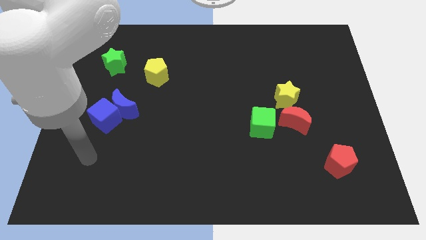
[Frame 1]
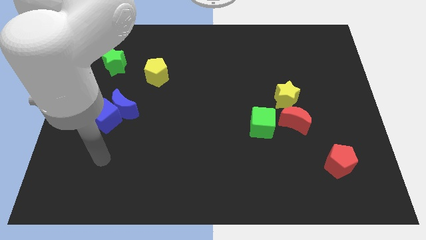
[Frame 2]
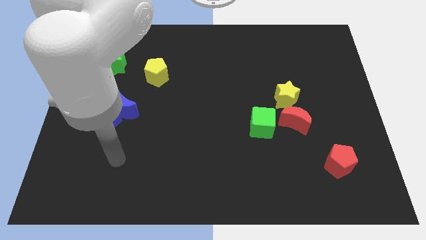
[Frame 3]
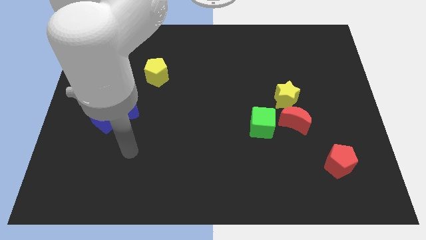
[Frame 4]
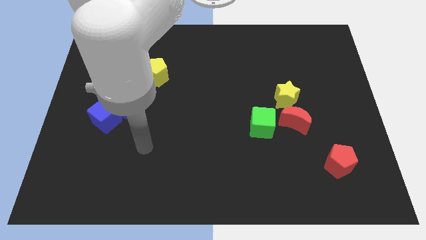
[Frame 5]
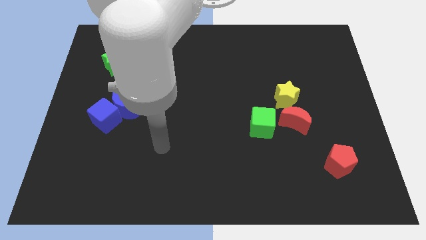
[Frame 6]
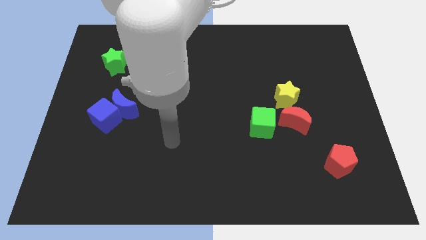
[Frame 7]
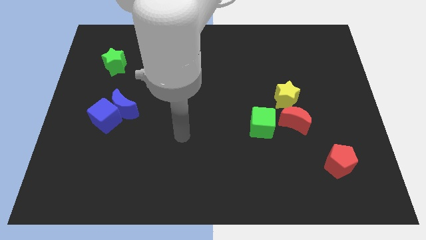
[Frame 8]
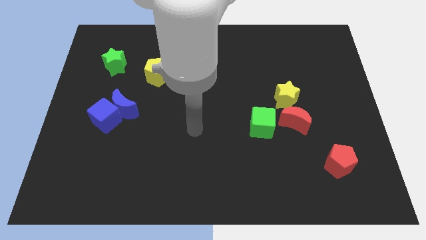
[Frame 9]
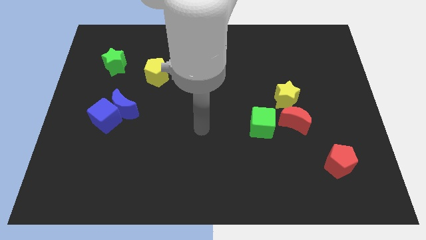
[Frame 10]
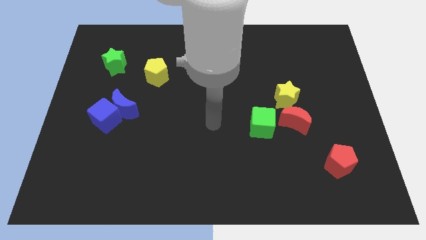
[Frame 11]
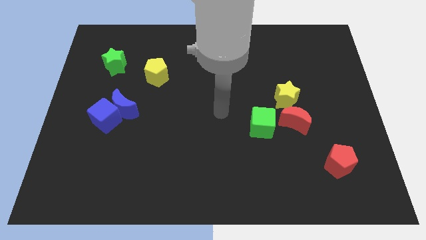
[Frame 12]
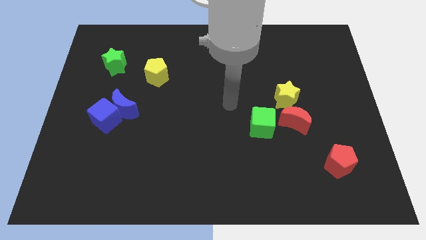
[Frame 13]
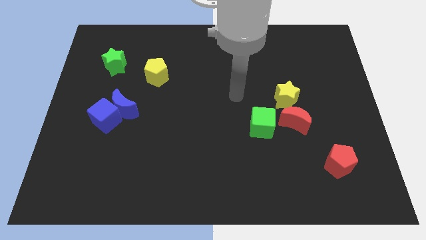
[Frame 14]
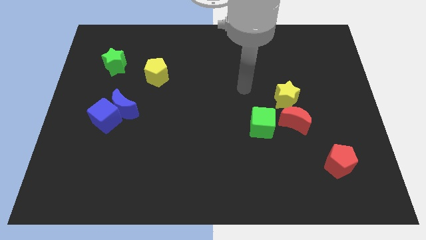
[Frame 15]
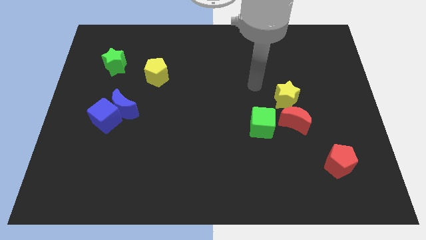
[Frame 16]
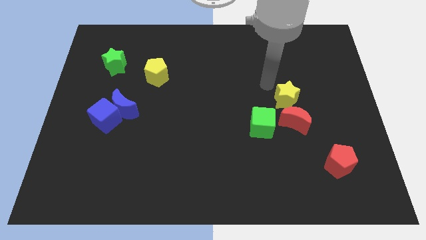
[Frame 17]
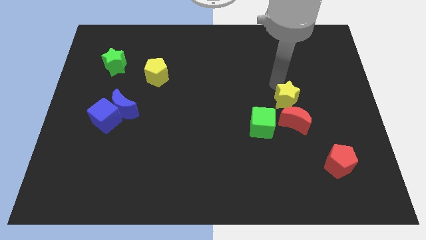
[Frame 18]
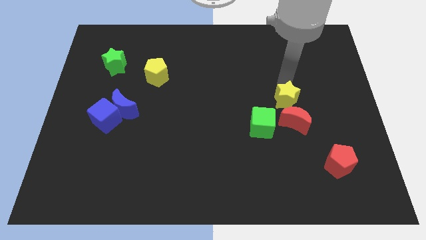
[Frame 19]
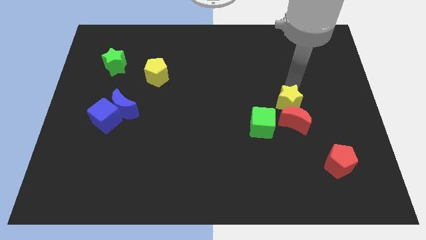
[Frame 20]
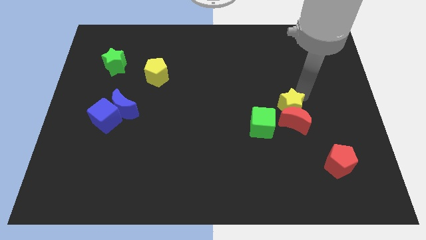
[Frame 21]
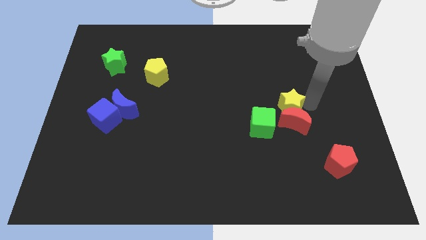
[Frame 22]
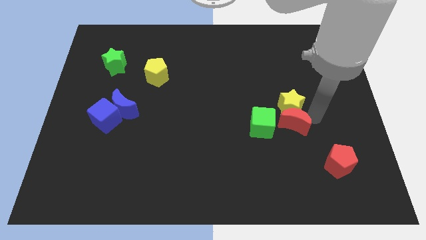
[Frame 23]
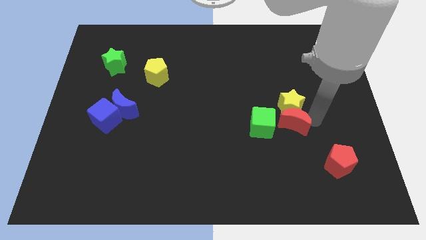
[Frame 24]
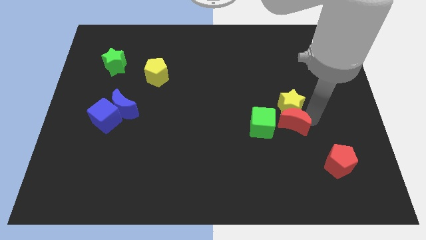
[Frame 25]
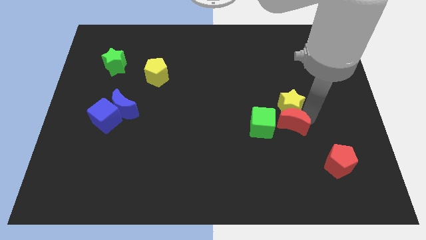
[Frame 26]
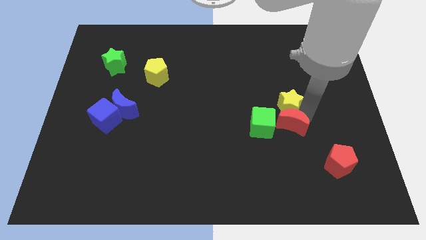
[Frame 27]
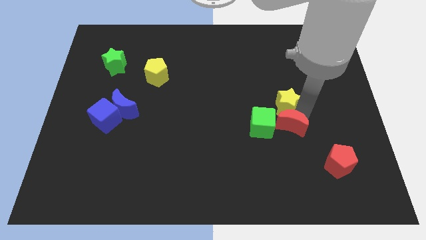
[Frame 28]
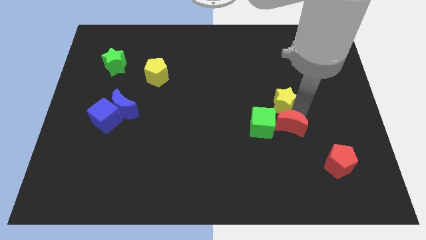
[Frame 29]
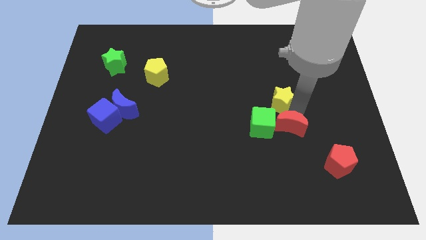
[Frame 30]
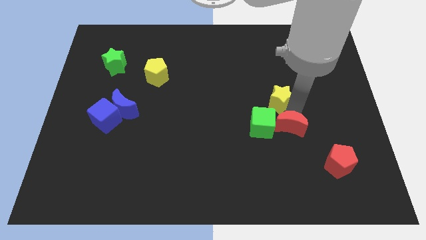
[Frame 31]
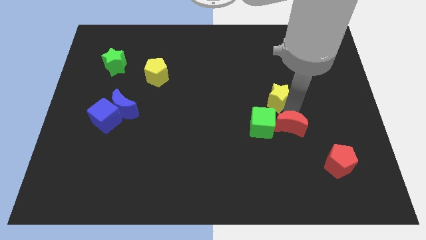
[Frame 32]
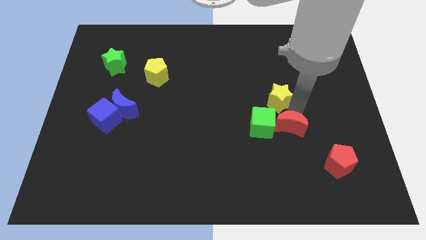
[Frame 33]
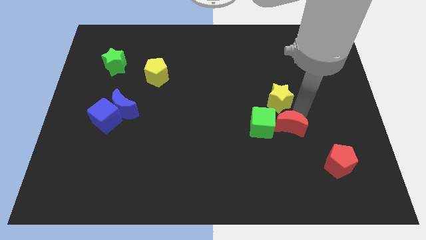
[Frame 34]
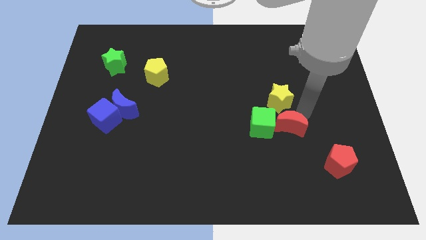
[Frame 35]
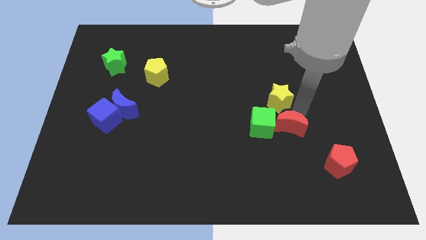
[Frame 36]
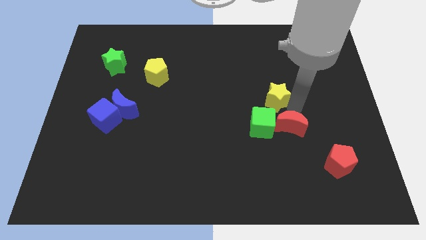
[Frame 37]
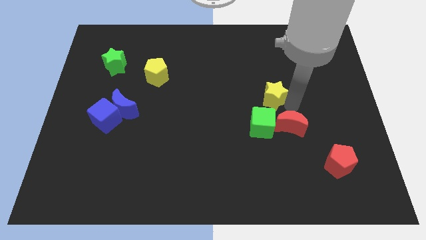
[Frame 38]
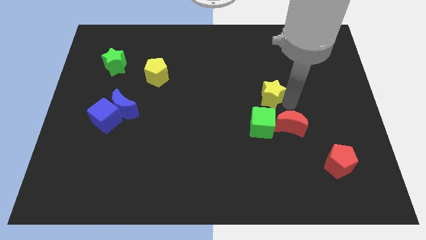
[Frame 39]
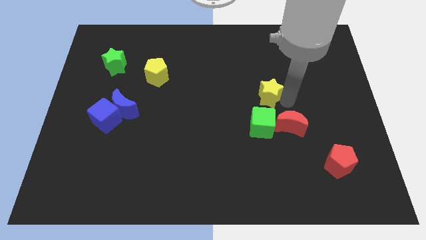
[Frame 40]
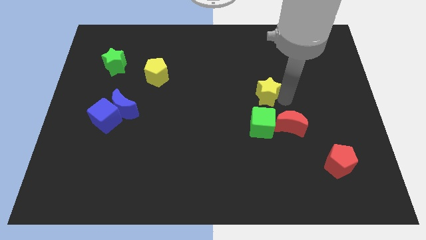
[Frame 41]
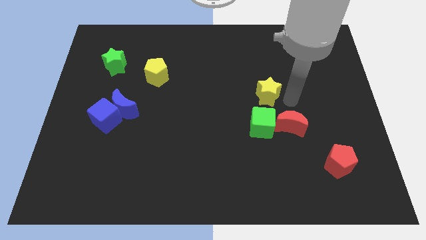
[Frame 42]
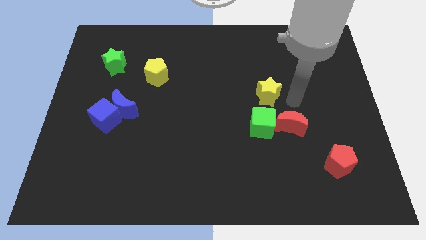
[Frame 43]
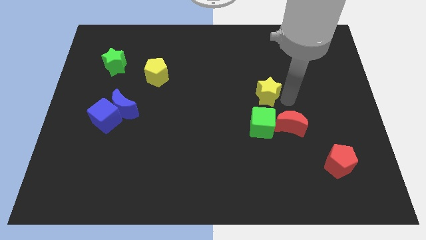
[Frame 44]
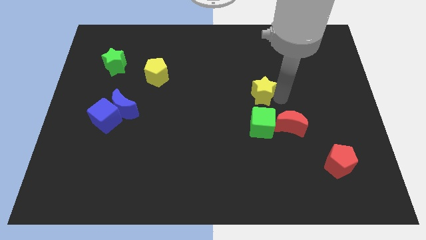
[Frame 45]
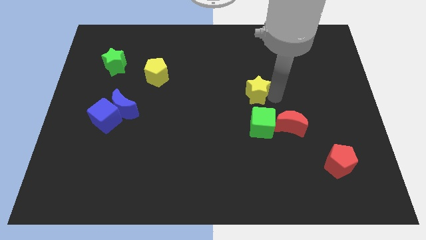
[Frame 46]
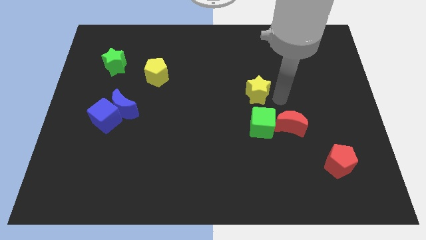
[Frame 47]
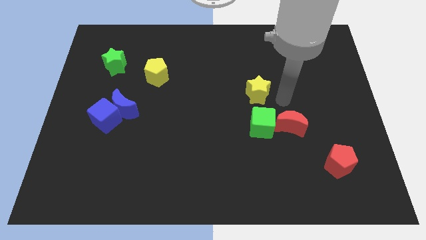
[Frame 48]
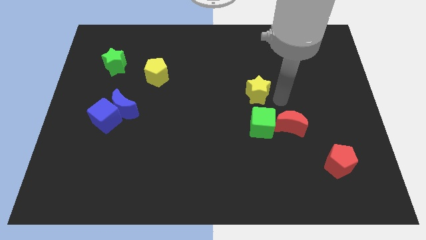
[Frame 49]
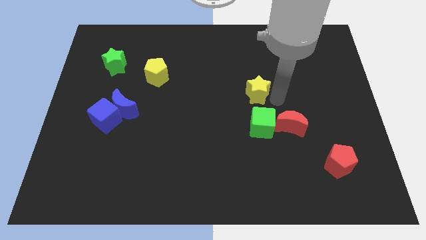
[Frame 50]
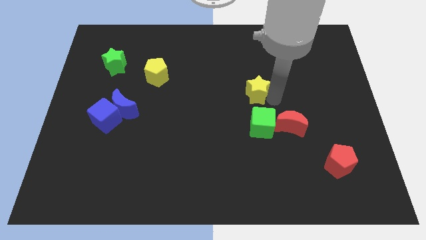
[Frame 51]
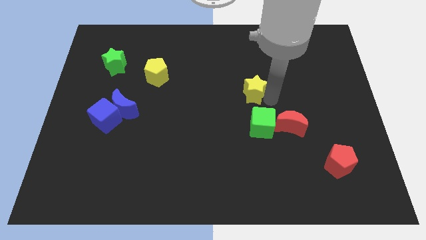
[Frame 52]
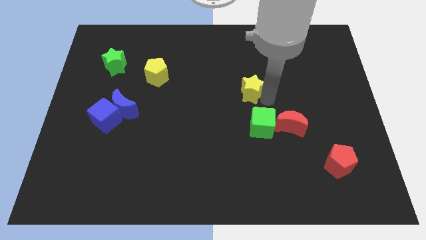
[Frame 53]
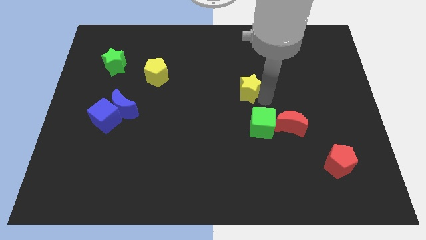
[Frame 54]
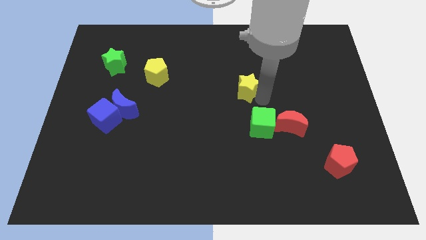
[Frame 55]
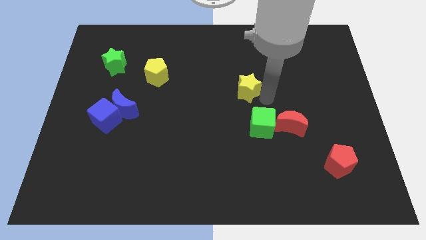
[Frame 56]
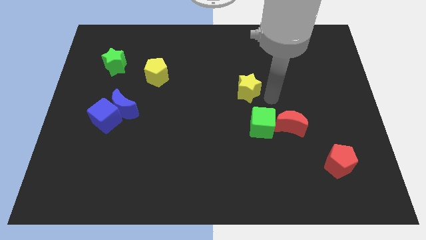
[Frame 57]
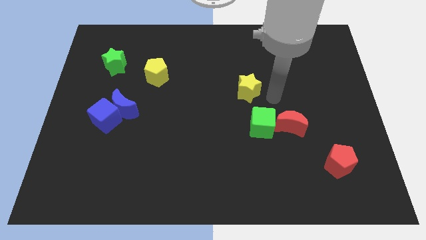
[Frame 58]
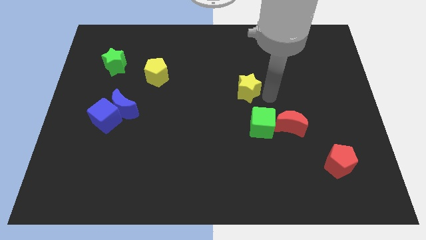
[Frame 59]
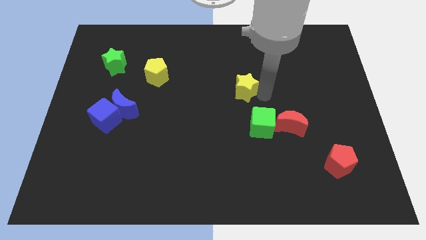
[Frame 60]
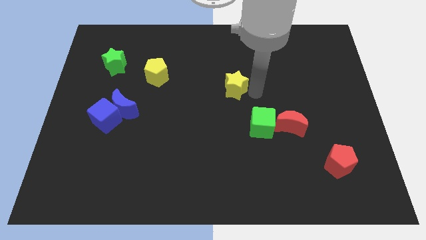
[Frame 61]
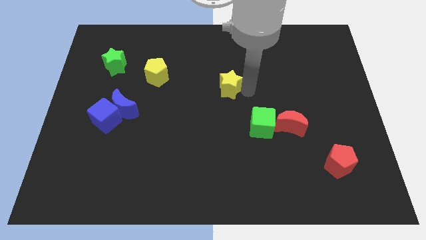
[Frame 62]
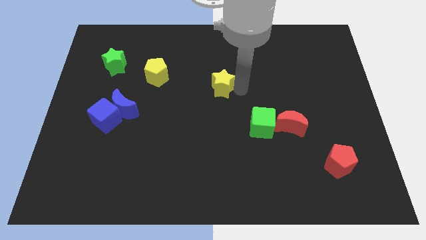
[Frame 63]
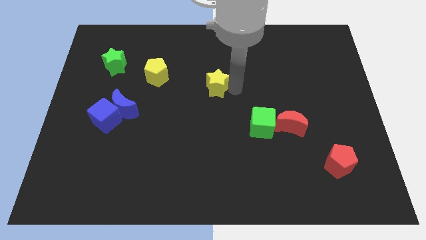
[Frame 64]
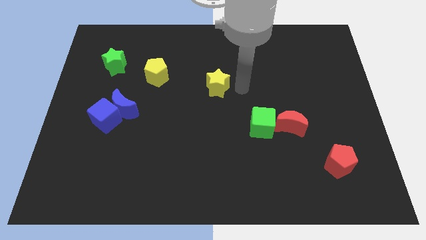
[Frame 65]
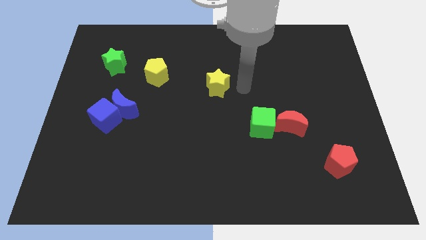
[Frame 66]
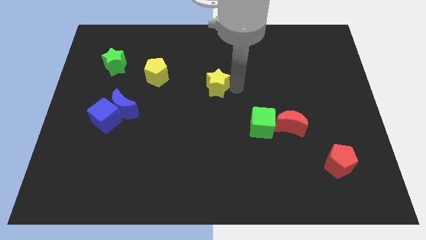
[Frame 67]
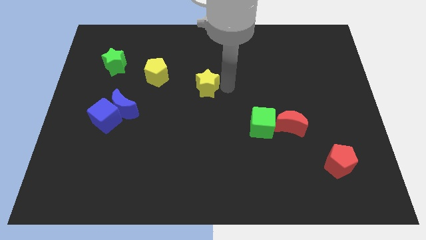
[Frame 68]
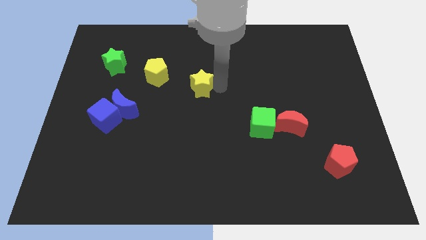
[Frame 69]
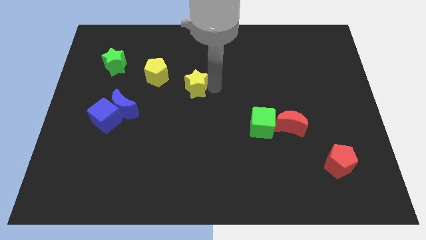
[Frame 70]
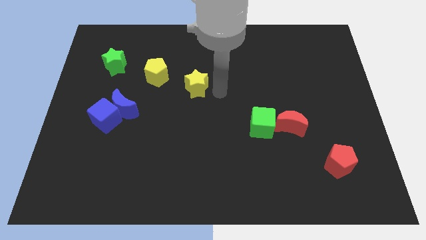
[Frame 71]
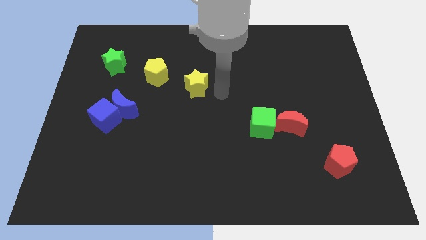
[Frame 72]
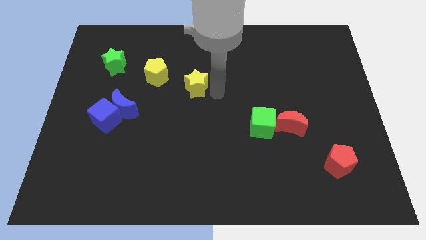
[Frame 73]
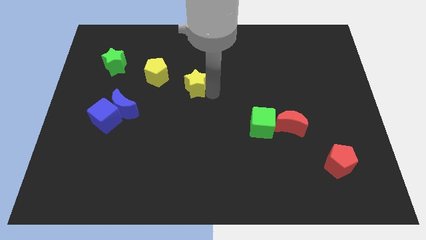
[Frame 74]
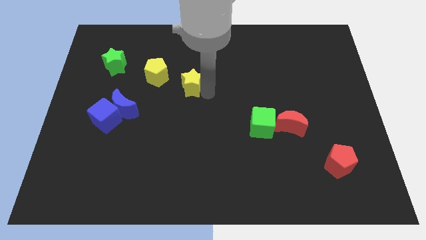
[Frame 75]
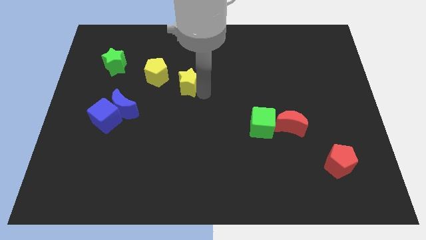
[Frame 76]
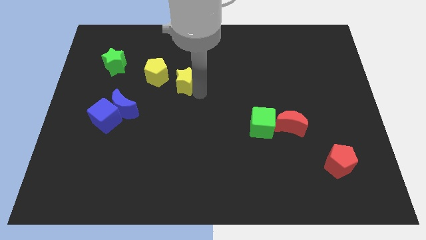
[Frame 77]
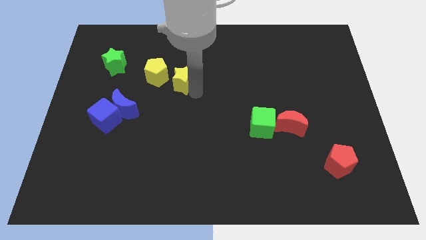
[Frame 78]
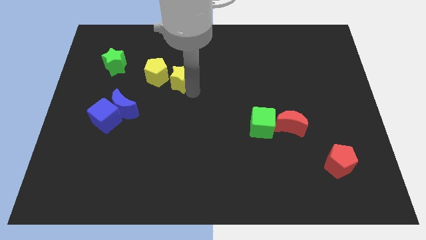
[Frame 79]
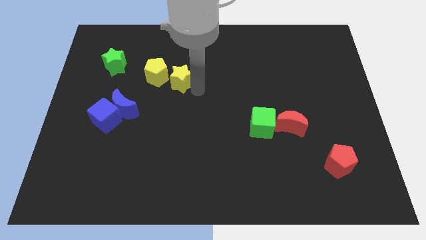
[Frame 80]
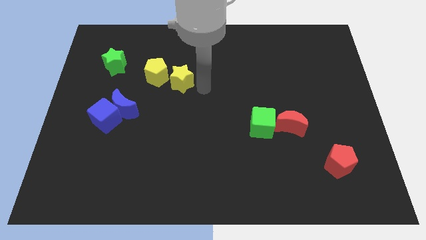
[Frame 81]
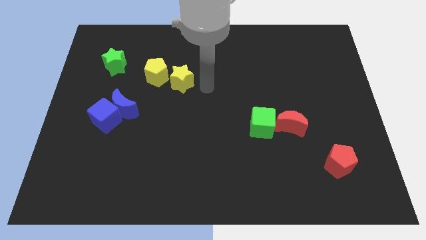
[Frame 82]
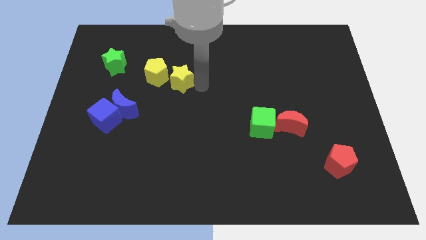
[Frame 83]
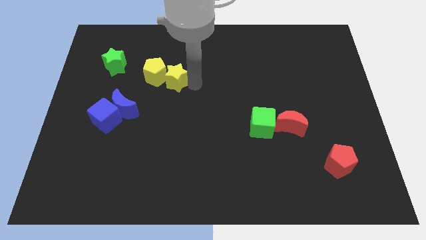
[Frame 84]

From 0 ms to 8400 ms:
push the yellow star next to the yellow pentagon
